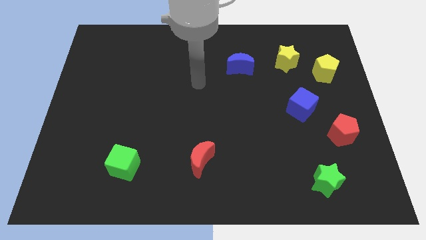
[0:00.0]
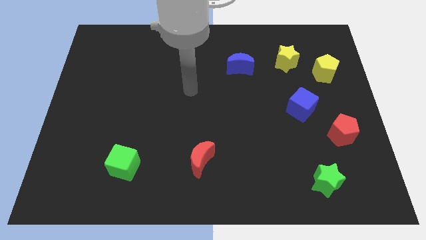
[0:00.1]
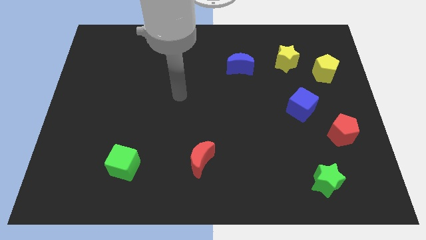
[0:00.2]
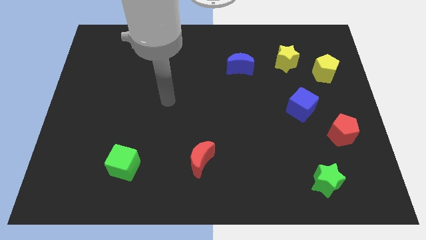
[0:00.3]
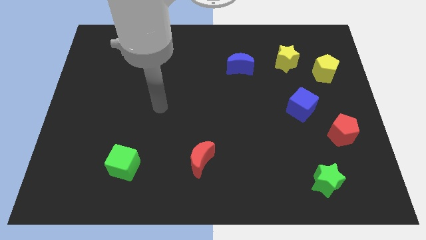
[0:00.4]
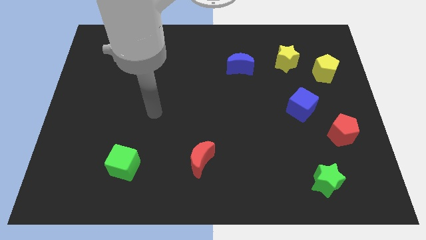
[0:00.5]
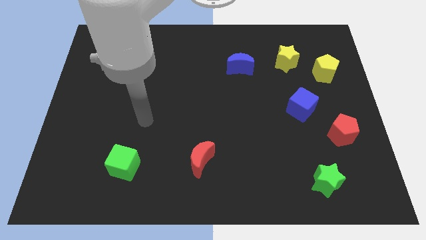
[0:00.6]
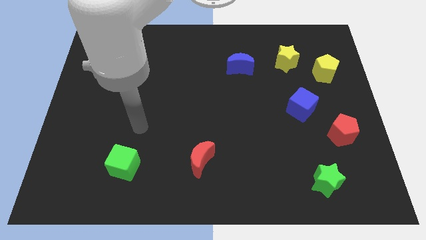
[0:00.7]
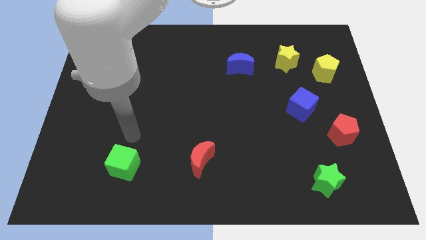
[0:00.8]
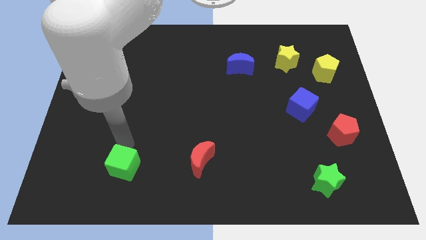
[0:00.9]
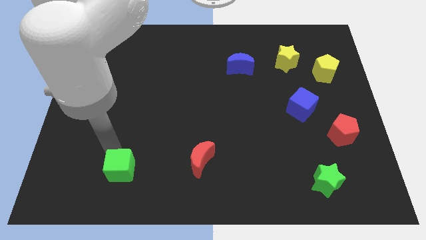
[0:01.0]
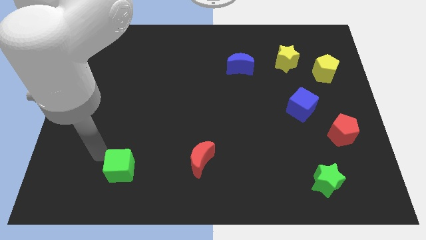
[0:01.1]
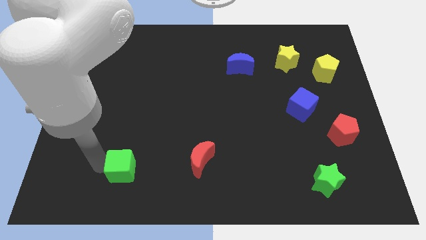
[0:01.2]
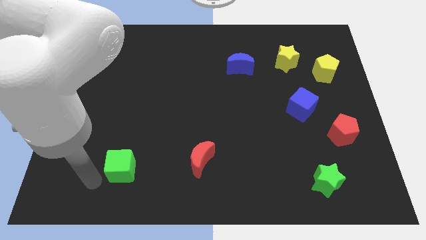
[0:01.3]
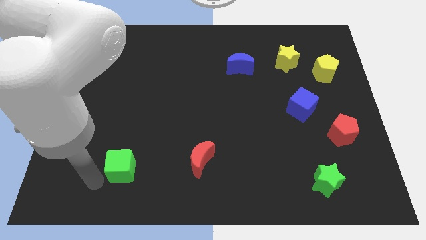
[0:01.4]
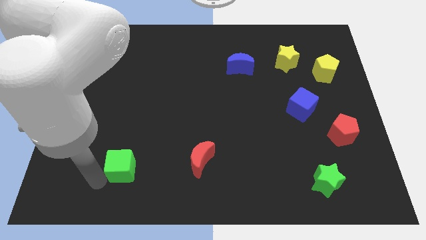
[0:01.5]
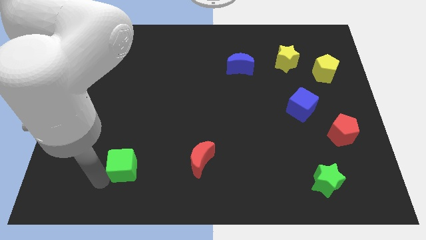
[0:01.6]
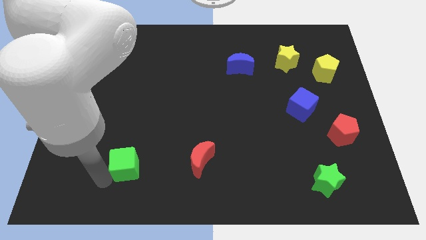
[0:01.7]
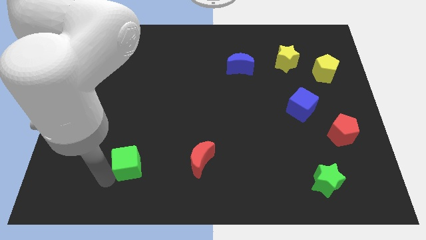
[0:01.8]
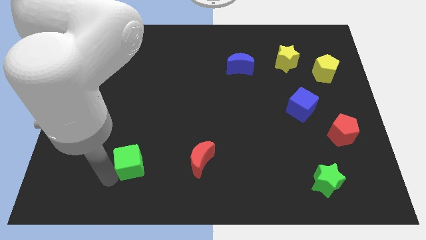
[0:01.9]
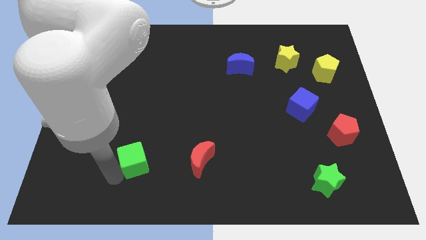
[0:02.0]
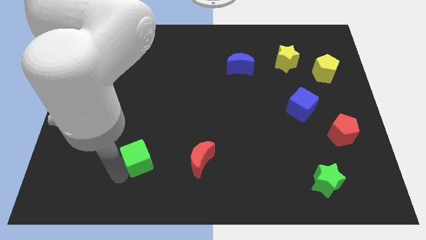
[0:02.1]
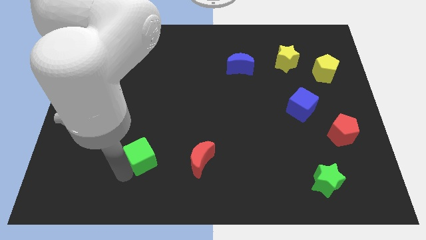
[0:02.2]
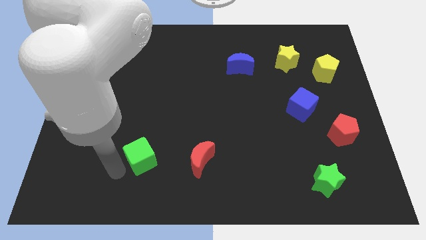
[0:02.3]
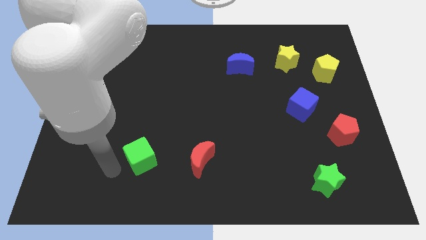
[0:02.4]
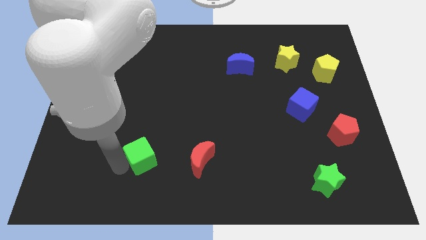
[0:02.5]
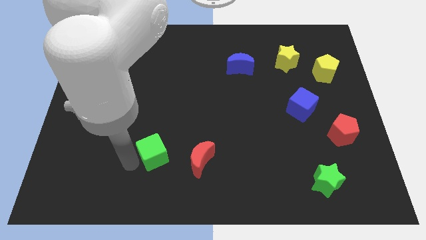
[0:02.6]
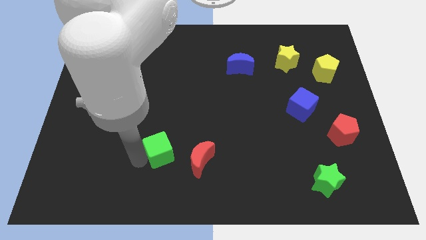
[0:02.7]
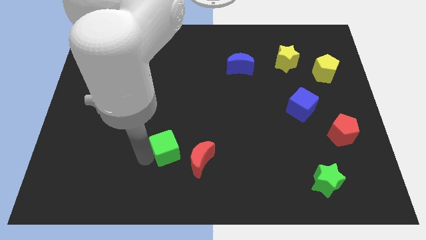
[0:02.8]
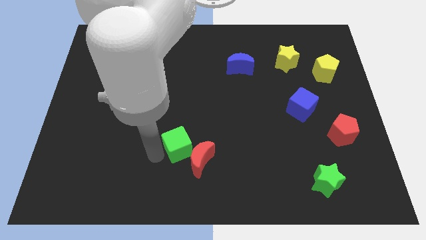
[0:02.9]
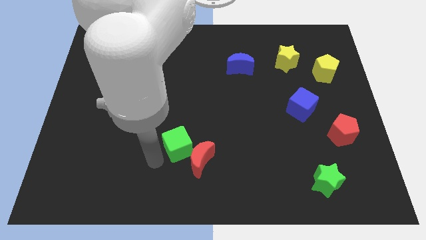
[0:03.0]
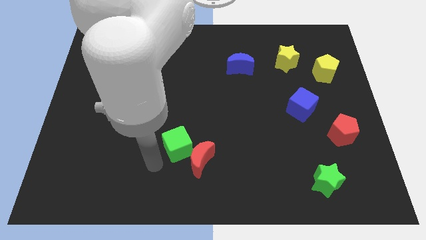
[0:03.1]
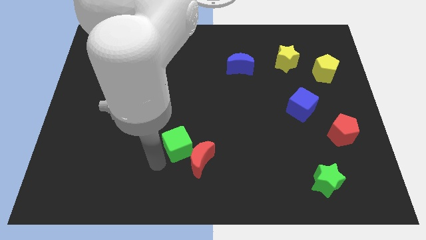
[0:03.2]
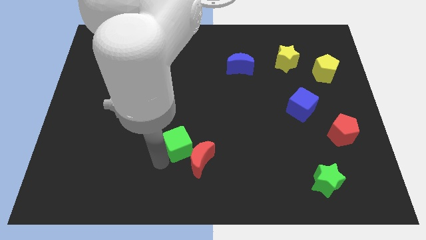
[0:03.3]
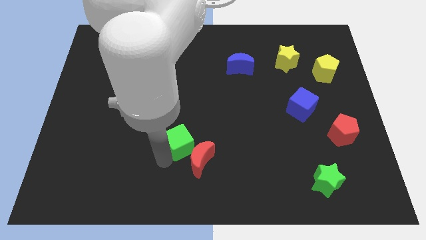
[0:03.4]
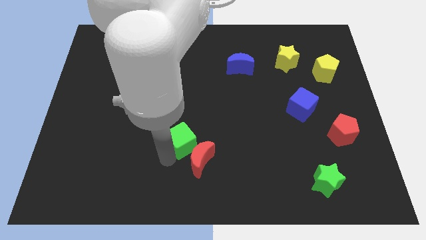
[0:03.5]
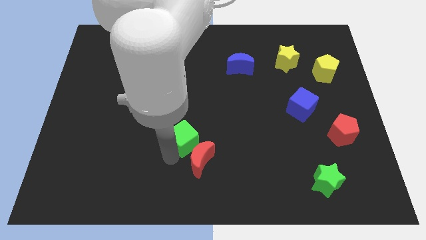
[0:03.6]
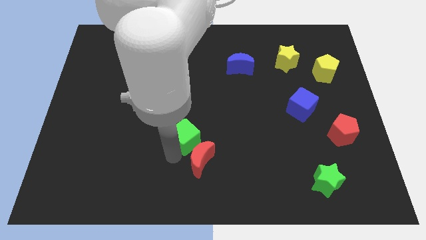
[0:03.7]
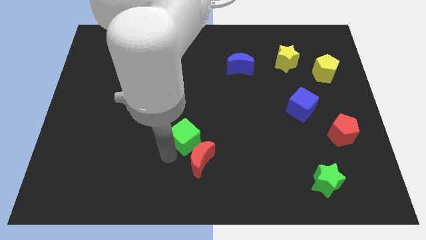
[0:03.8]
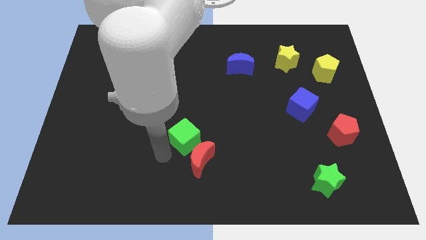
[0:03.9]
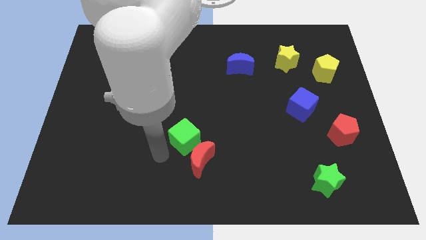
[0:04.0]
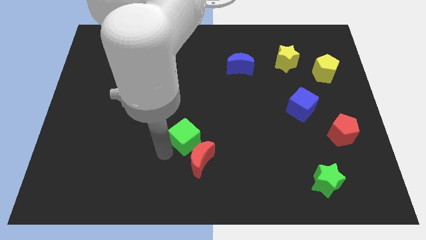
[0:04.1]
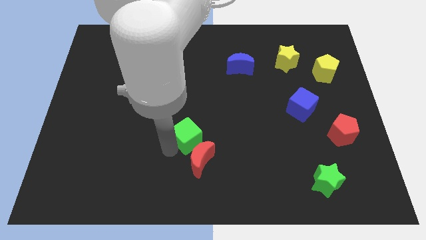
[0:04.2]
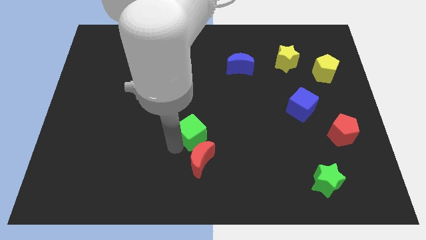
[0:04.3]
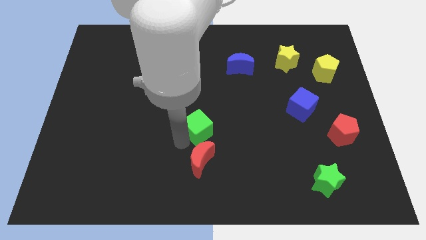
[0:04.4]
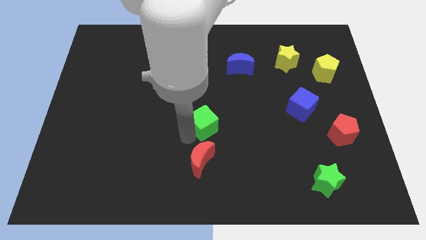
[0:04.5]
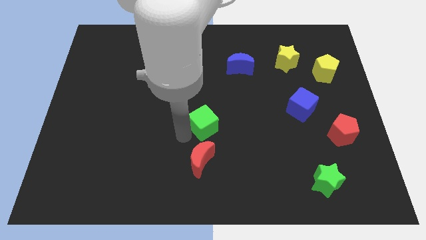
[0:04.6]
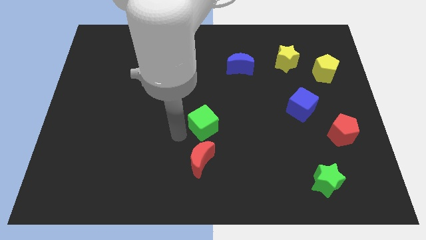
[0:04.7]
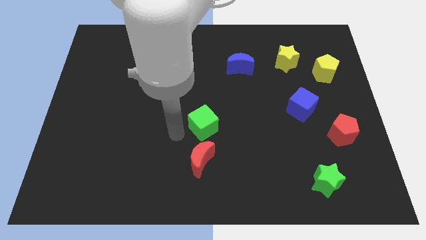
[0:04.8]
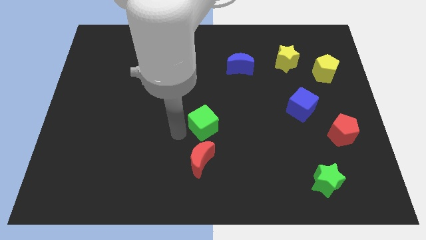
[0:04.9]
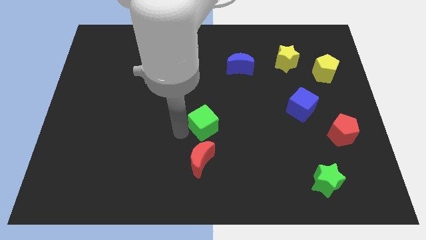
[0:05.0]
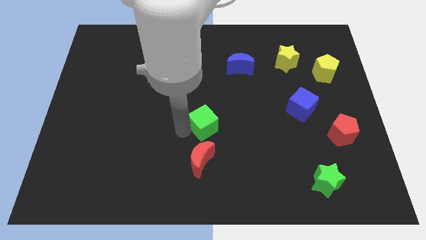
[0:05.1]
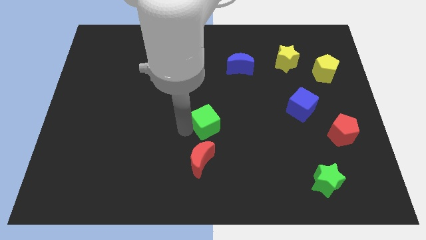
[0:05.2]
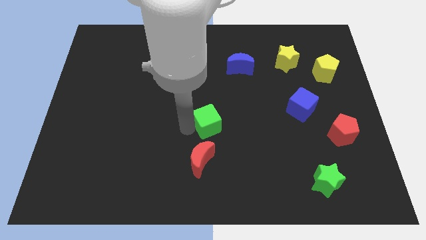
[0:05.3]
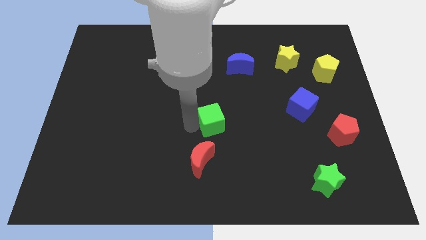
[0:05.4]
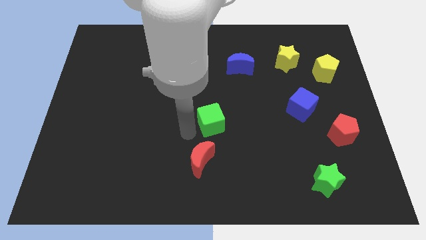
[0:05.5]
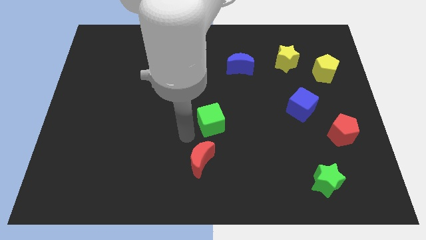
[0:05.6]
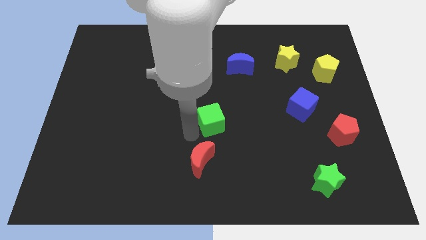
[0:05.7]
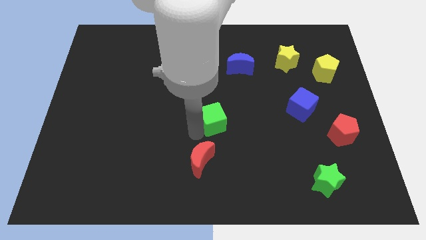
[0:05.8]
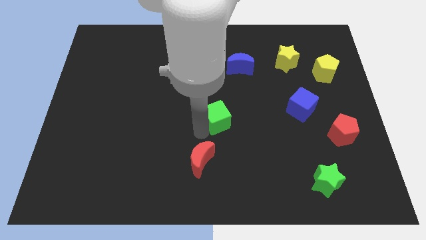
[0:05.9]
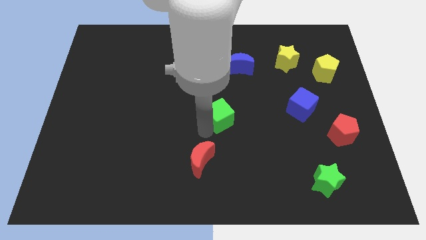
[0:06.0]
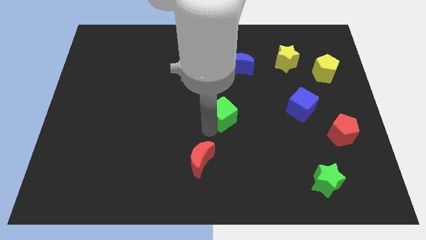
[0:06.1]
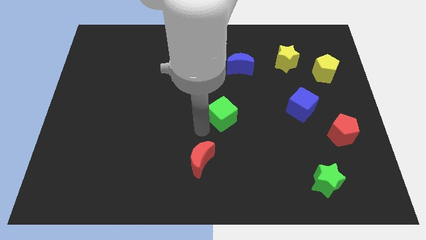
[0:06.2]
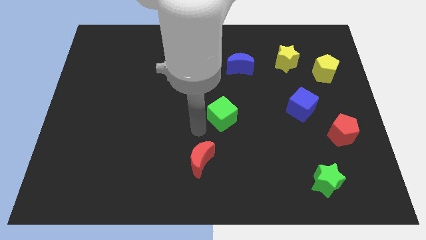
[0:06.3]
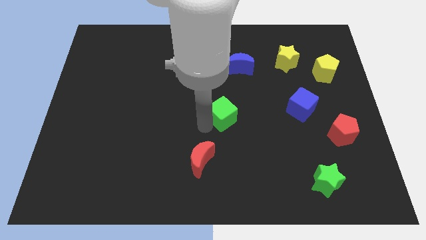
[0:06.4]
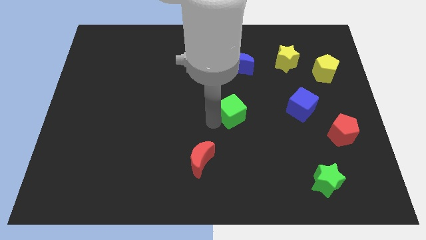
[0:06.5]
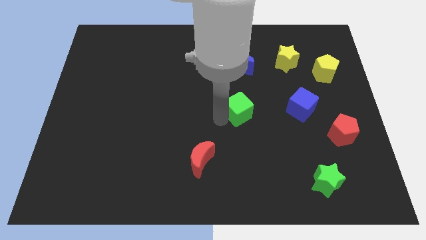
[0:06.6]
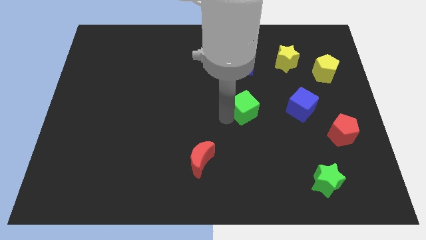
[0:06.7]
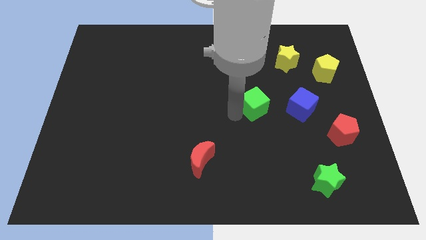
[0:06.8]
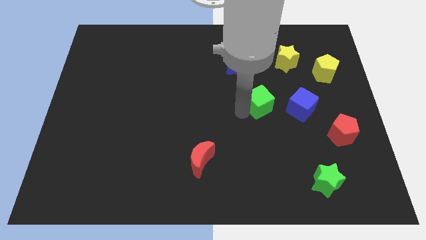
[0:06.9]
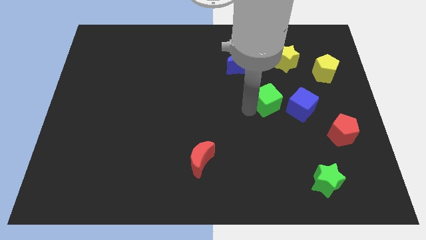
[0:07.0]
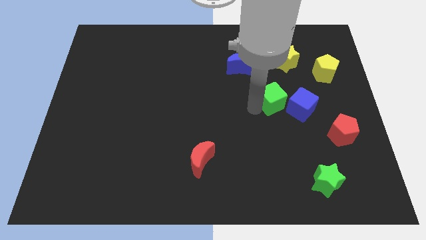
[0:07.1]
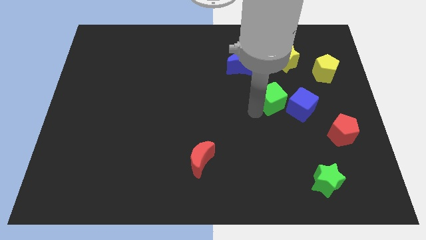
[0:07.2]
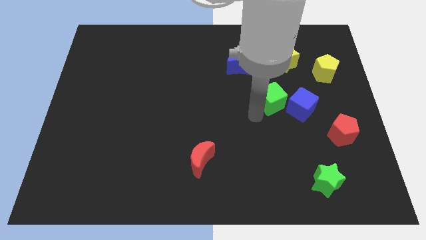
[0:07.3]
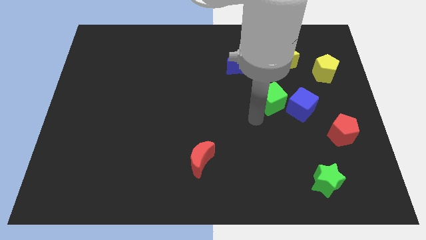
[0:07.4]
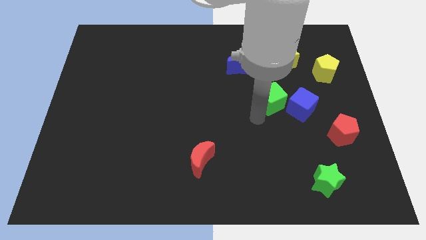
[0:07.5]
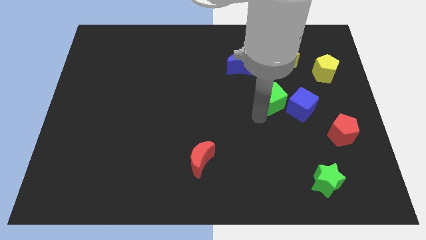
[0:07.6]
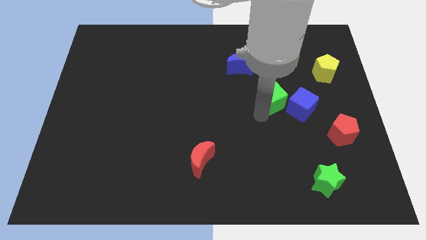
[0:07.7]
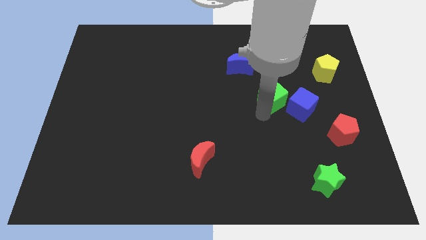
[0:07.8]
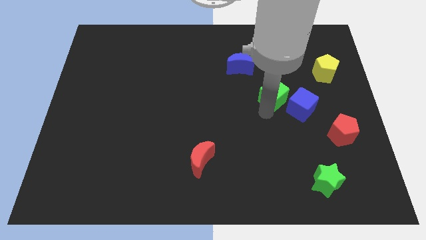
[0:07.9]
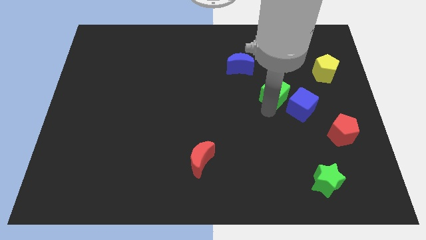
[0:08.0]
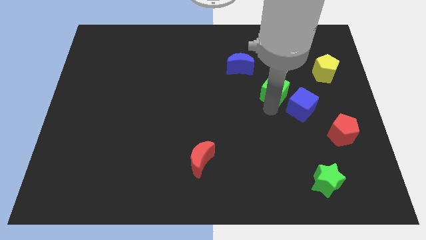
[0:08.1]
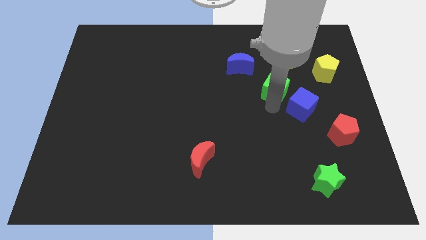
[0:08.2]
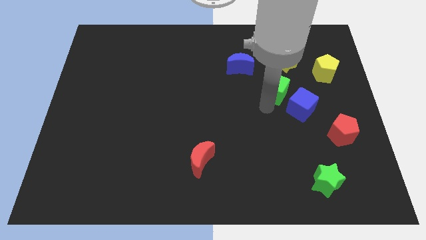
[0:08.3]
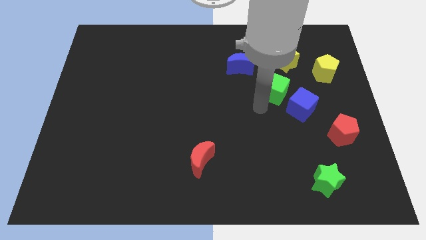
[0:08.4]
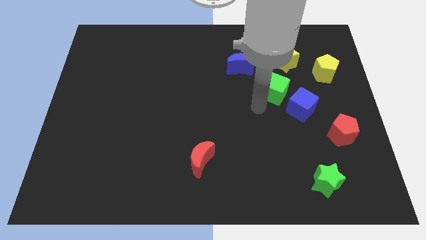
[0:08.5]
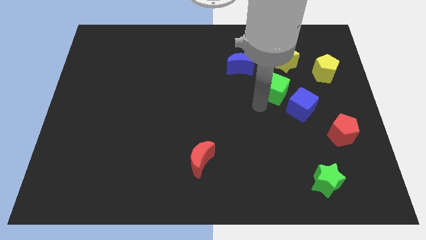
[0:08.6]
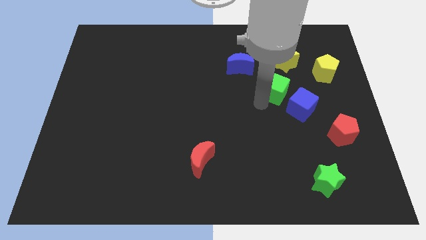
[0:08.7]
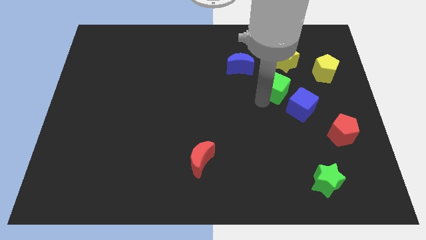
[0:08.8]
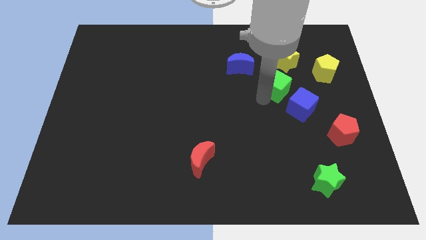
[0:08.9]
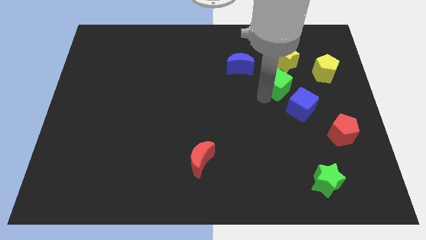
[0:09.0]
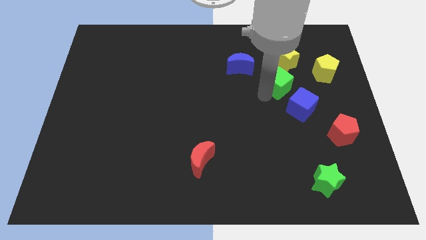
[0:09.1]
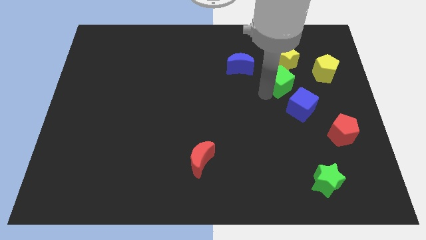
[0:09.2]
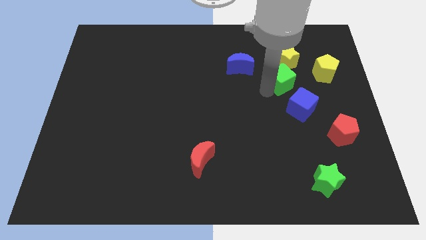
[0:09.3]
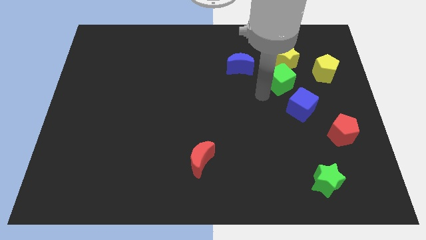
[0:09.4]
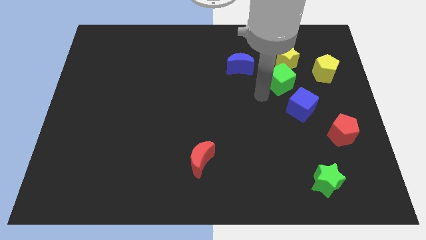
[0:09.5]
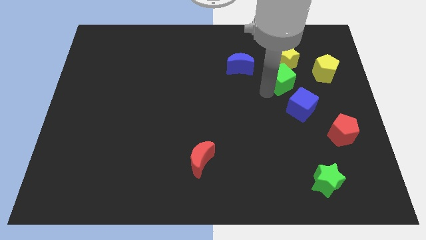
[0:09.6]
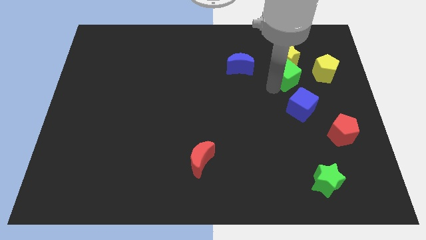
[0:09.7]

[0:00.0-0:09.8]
slide the green cube to the right side of the blue moon
